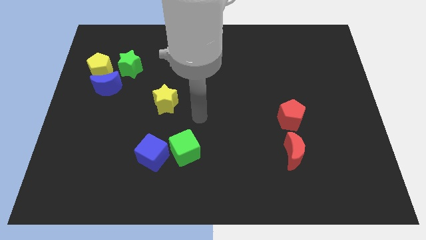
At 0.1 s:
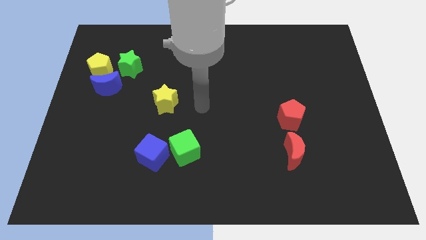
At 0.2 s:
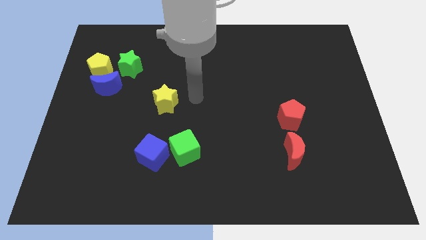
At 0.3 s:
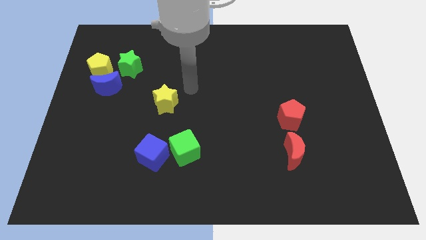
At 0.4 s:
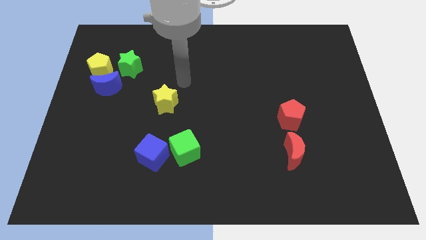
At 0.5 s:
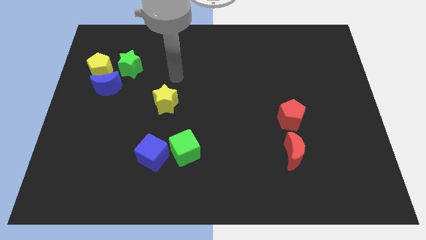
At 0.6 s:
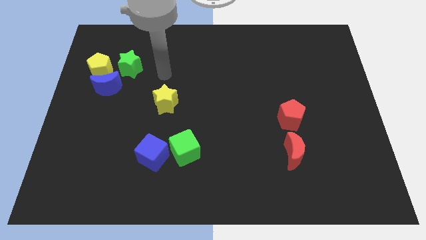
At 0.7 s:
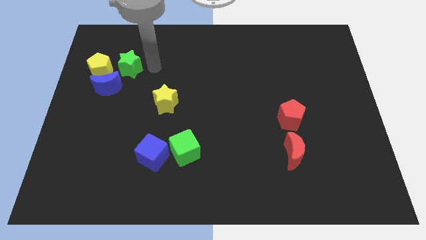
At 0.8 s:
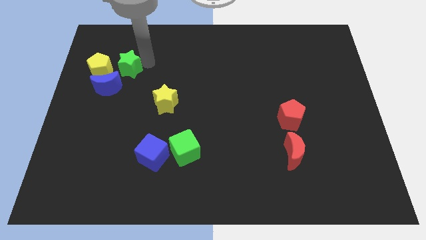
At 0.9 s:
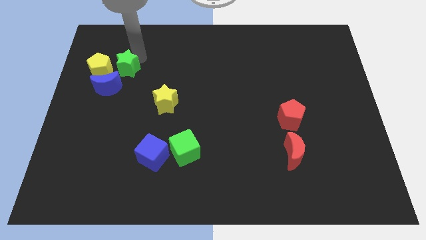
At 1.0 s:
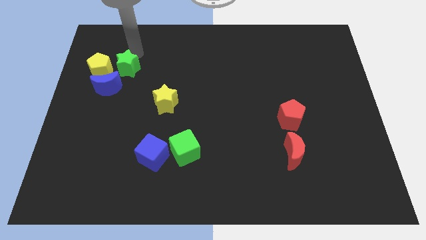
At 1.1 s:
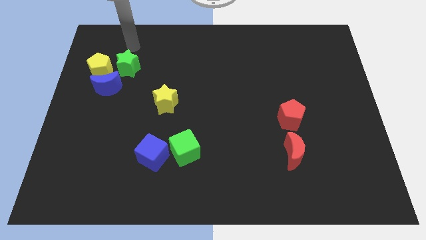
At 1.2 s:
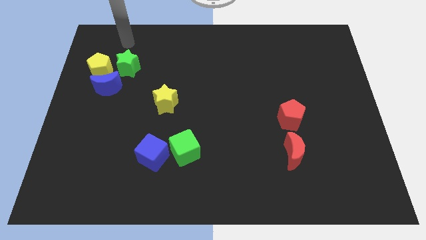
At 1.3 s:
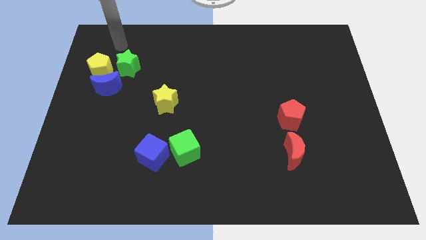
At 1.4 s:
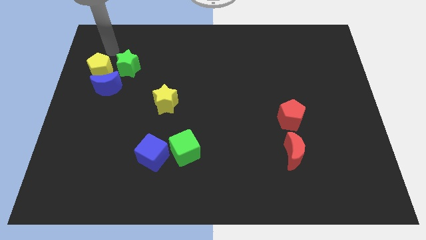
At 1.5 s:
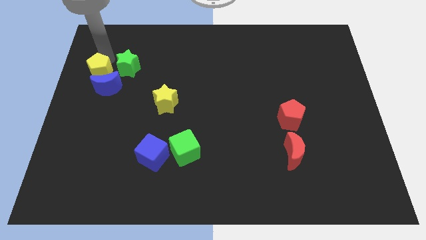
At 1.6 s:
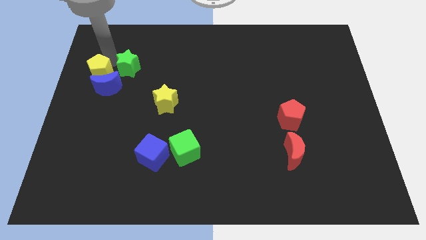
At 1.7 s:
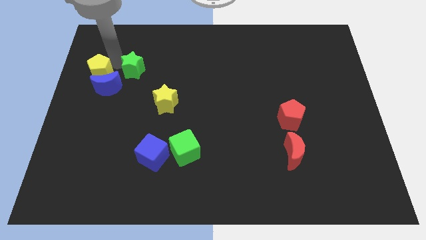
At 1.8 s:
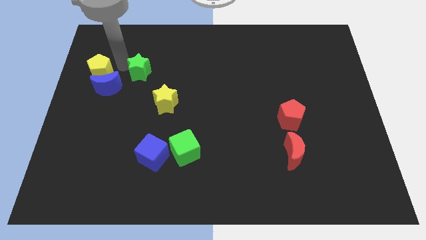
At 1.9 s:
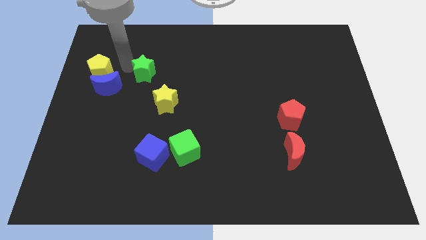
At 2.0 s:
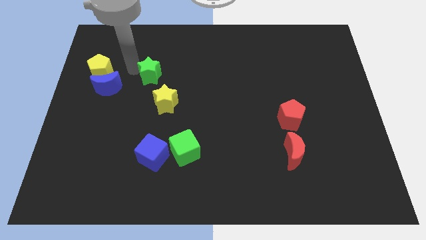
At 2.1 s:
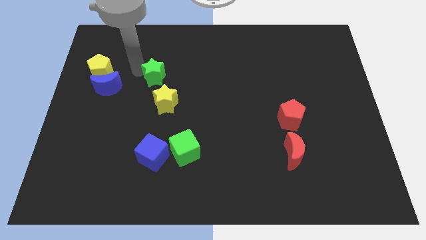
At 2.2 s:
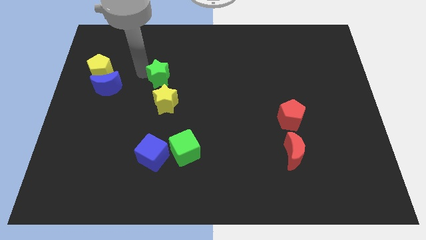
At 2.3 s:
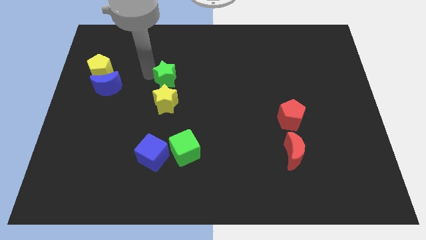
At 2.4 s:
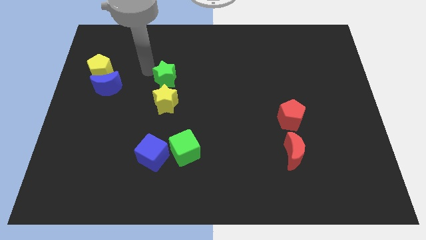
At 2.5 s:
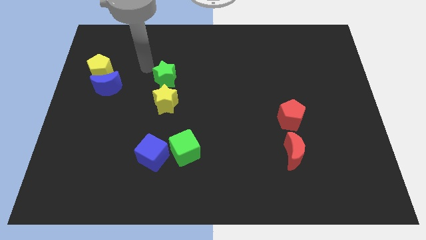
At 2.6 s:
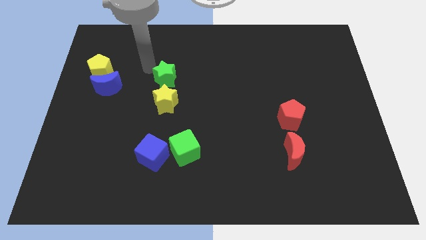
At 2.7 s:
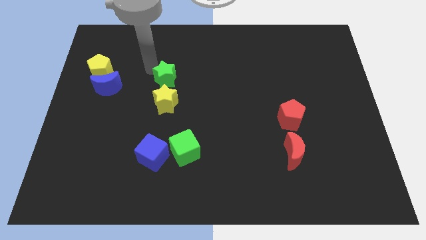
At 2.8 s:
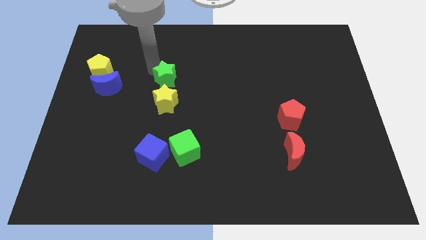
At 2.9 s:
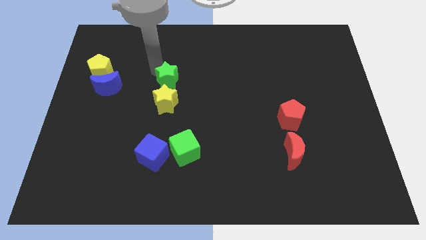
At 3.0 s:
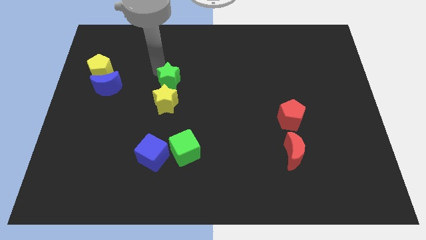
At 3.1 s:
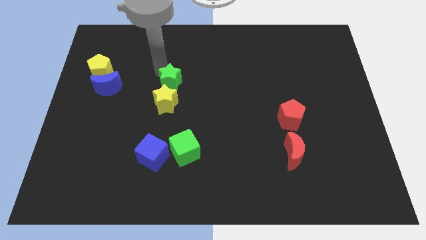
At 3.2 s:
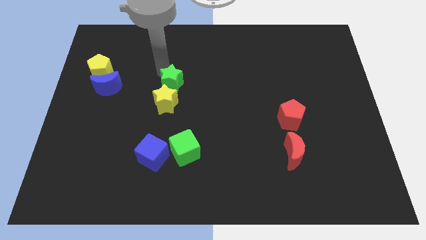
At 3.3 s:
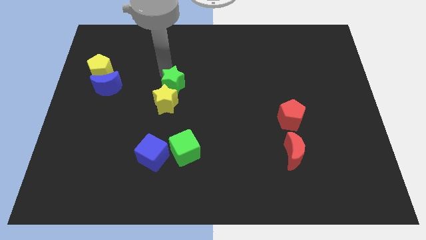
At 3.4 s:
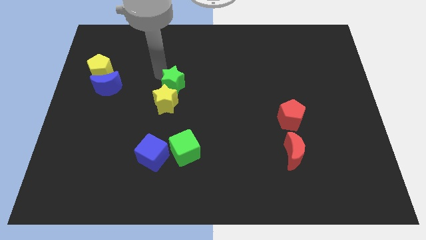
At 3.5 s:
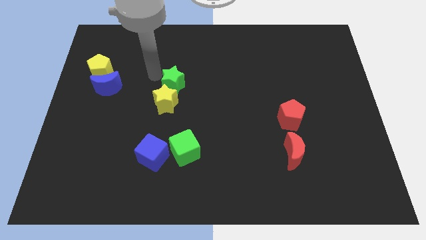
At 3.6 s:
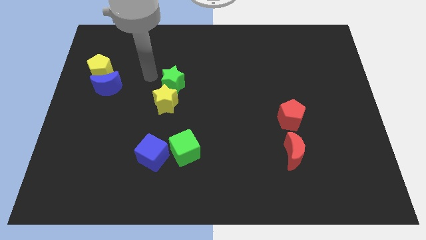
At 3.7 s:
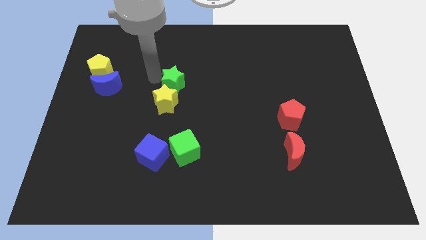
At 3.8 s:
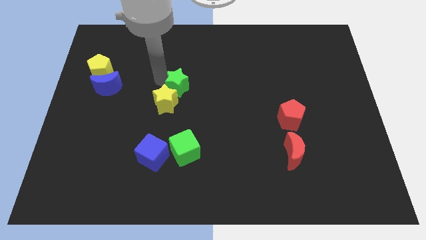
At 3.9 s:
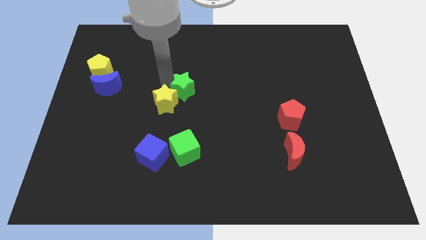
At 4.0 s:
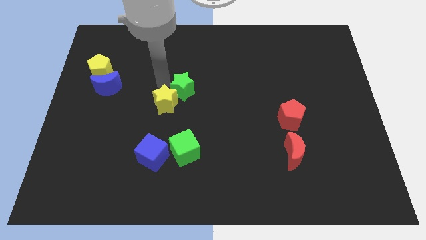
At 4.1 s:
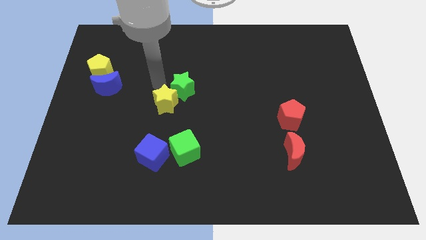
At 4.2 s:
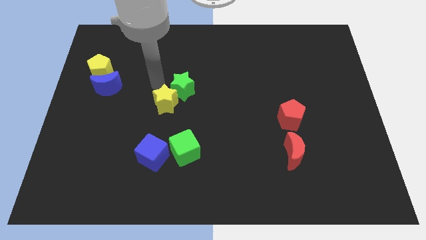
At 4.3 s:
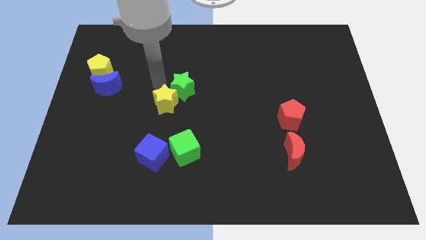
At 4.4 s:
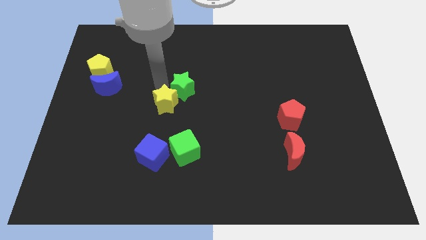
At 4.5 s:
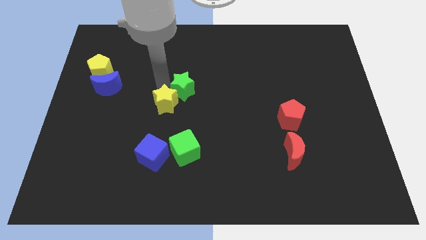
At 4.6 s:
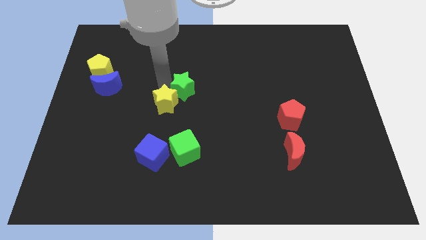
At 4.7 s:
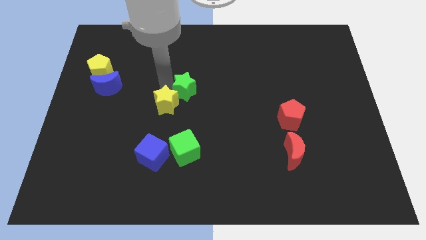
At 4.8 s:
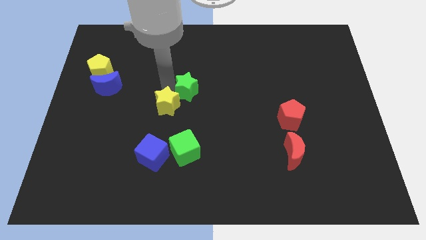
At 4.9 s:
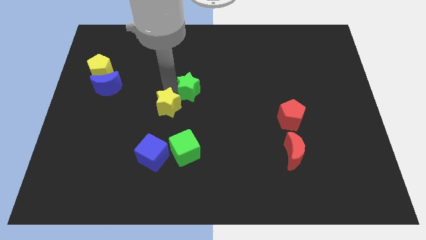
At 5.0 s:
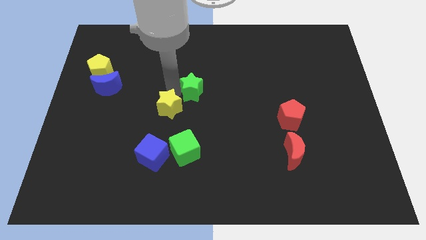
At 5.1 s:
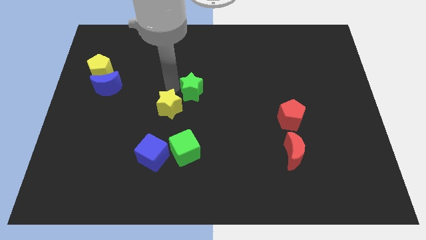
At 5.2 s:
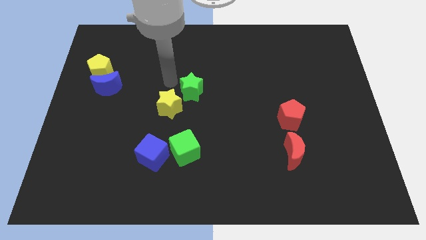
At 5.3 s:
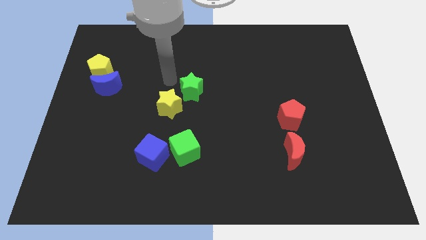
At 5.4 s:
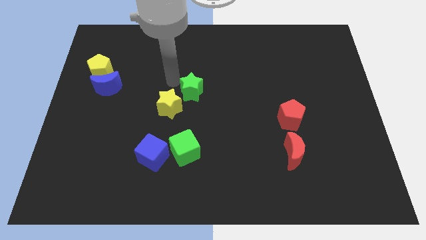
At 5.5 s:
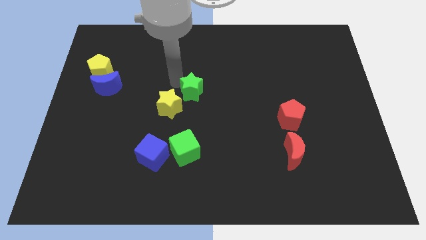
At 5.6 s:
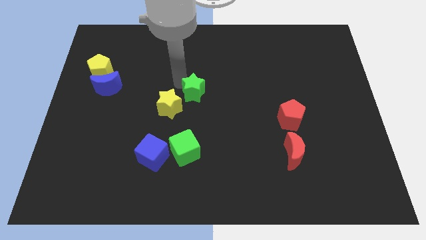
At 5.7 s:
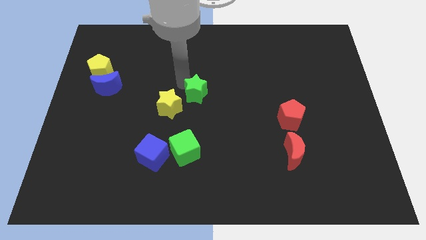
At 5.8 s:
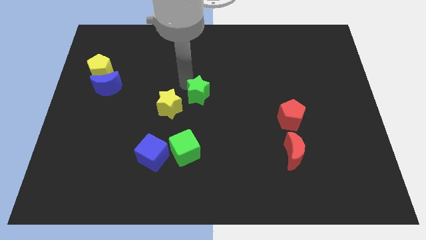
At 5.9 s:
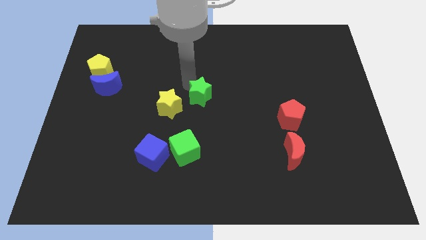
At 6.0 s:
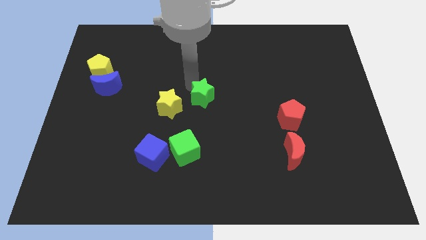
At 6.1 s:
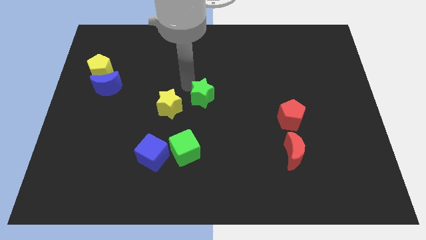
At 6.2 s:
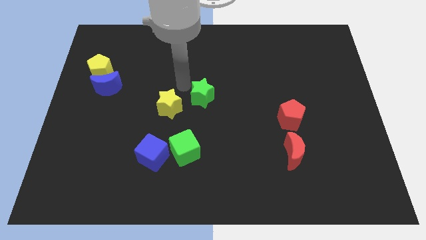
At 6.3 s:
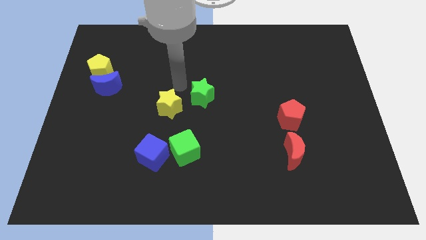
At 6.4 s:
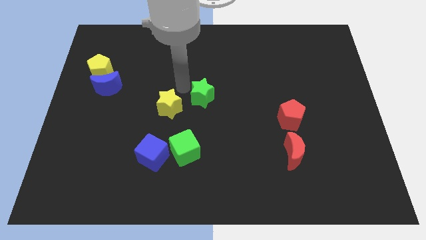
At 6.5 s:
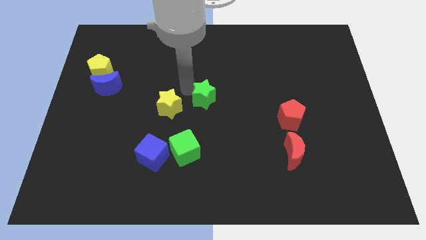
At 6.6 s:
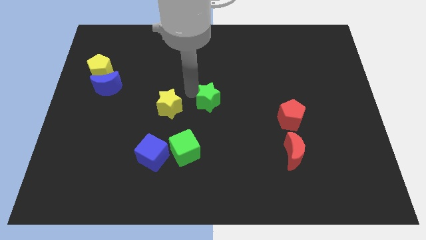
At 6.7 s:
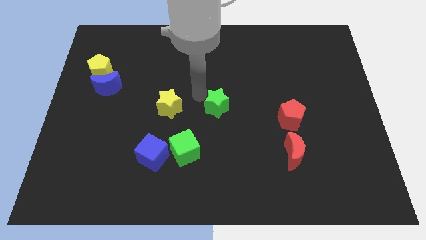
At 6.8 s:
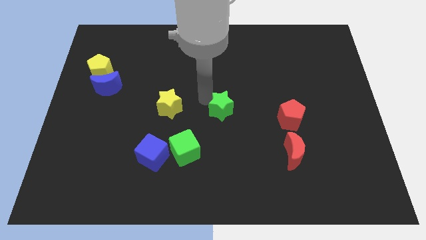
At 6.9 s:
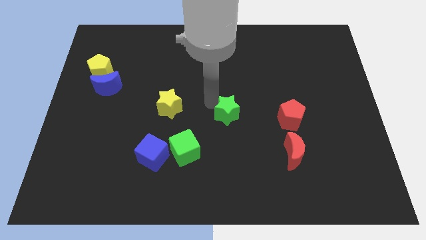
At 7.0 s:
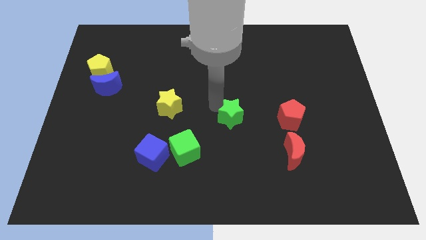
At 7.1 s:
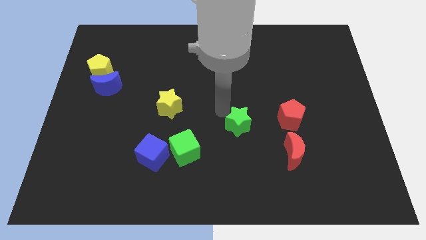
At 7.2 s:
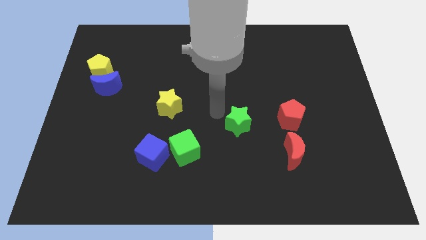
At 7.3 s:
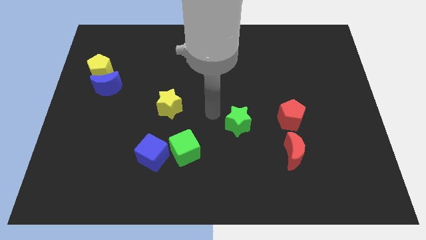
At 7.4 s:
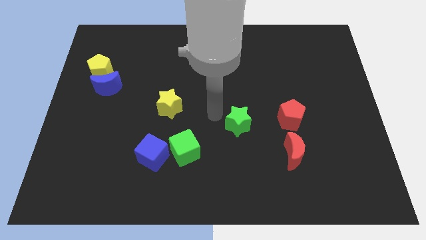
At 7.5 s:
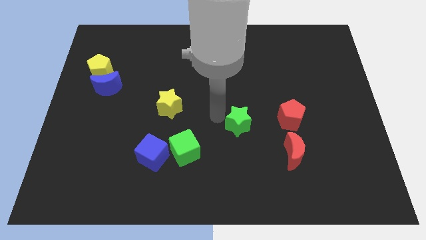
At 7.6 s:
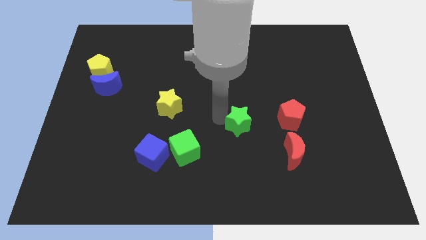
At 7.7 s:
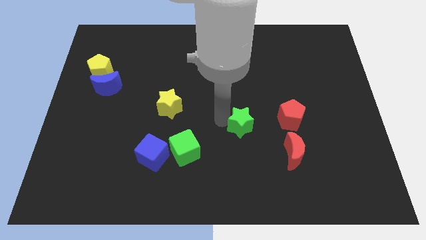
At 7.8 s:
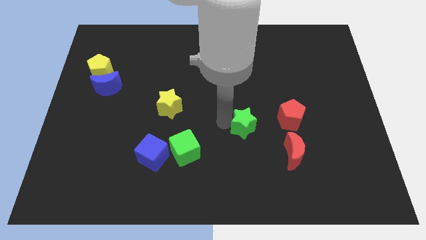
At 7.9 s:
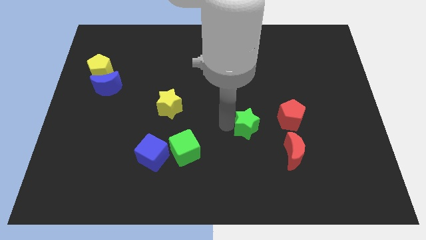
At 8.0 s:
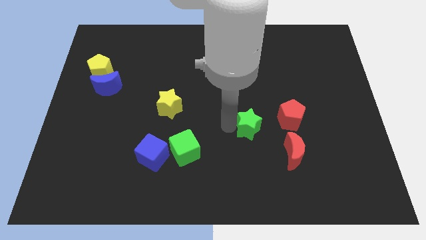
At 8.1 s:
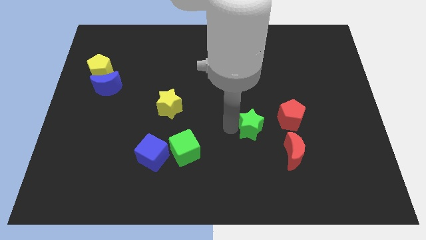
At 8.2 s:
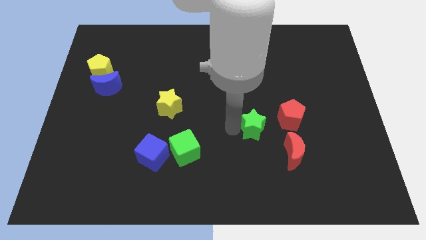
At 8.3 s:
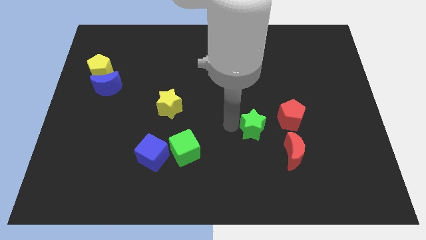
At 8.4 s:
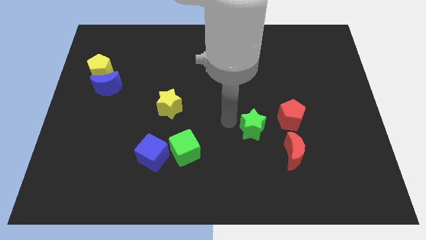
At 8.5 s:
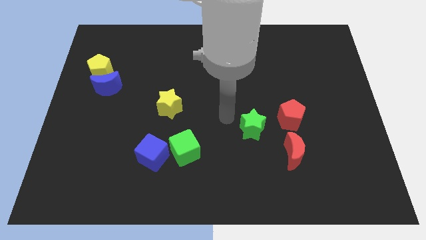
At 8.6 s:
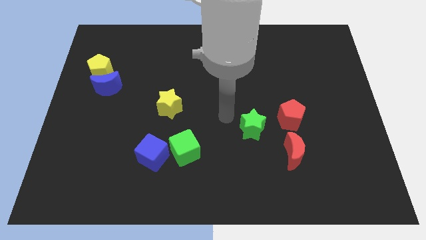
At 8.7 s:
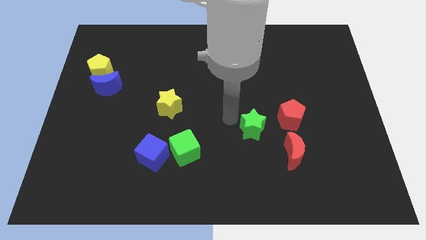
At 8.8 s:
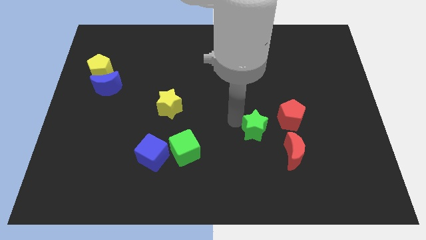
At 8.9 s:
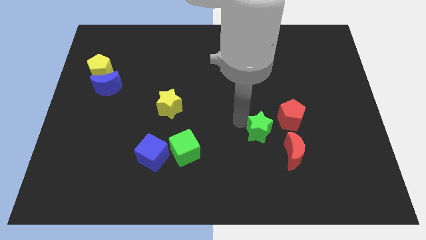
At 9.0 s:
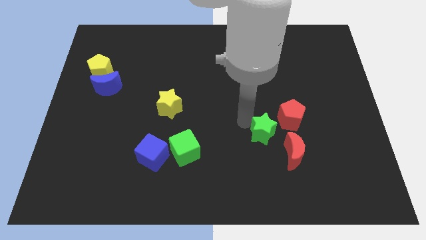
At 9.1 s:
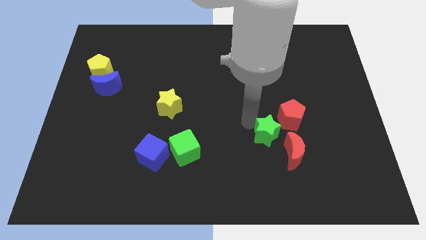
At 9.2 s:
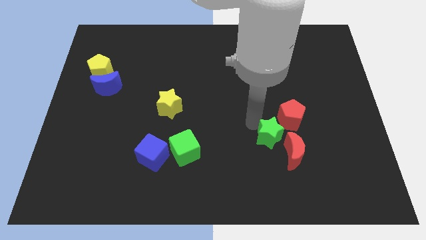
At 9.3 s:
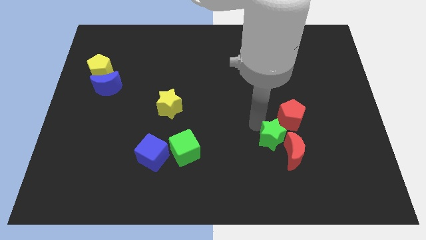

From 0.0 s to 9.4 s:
slide the green star close to the red moon
